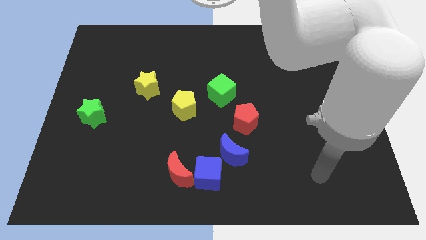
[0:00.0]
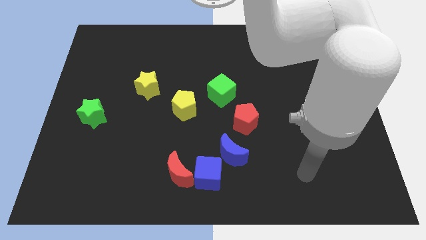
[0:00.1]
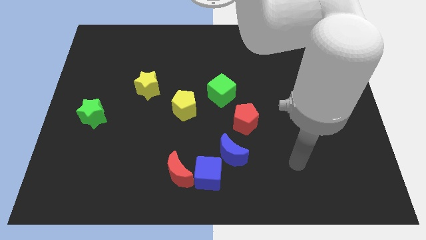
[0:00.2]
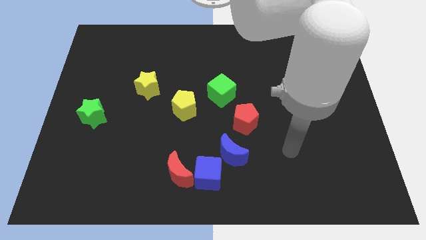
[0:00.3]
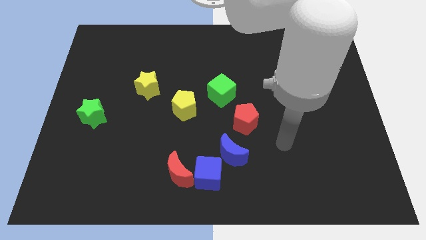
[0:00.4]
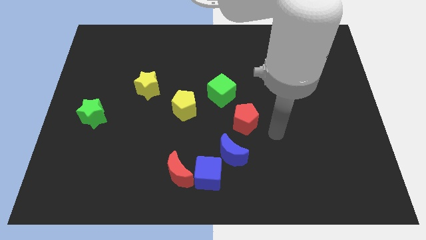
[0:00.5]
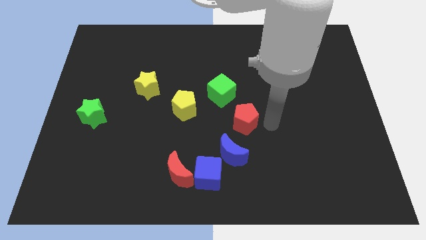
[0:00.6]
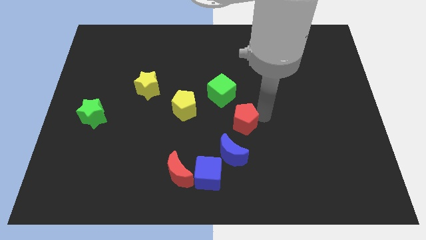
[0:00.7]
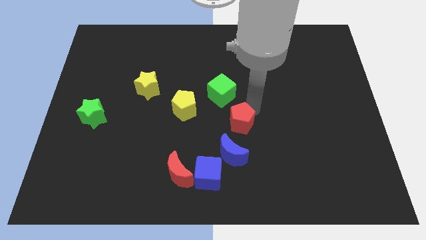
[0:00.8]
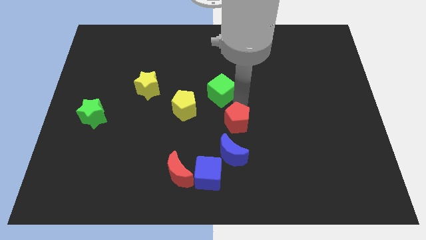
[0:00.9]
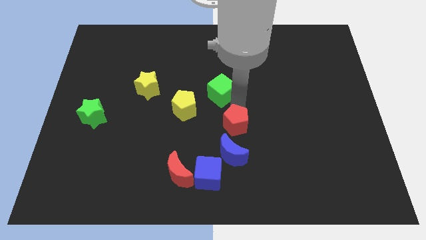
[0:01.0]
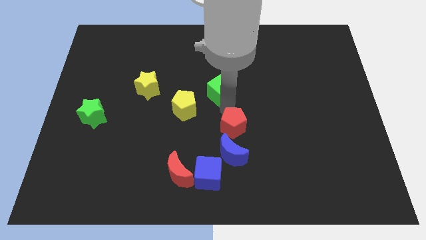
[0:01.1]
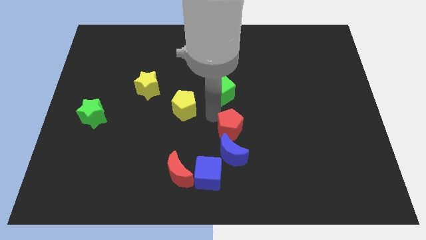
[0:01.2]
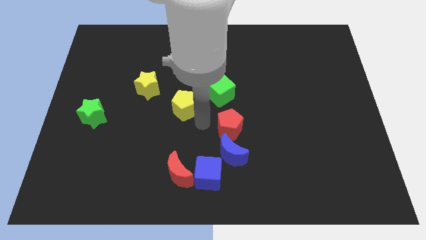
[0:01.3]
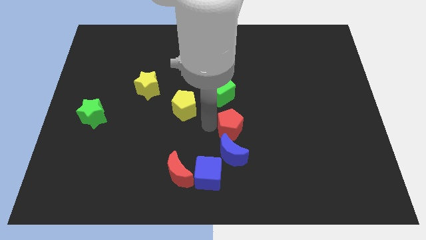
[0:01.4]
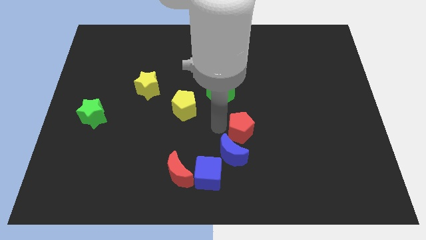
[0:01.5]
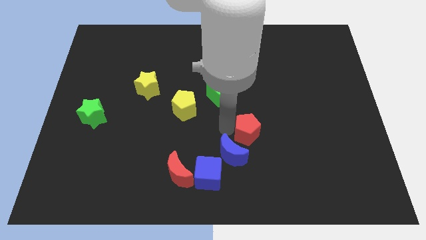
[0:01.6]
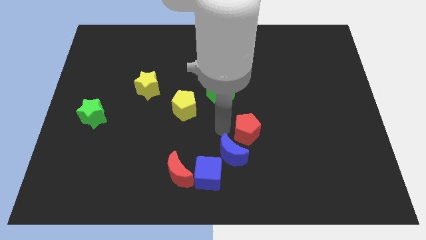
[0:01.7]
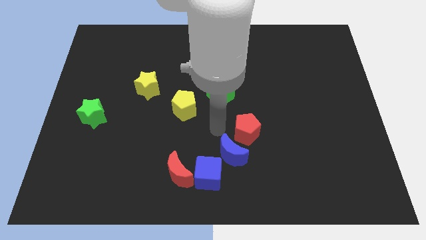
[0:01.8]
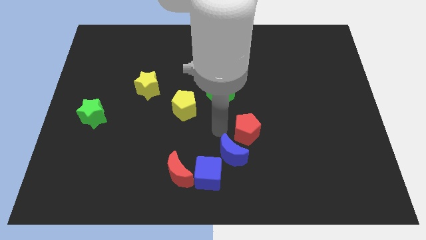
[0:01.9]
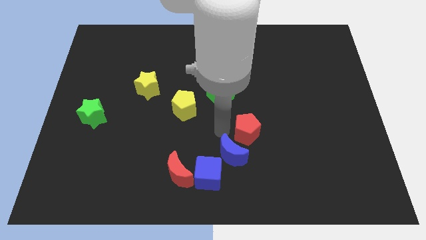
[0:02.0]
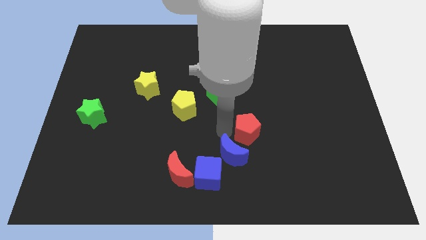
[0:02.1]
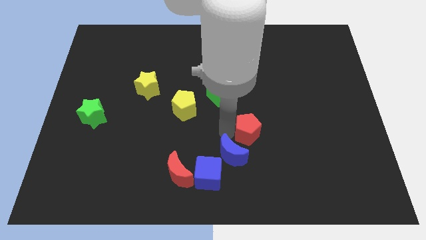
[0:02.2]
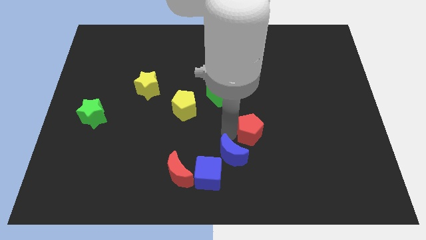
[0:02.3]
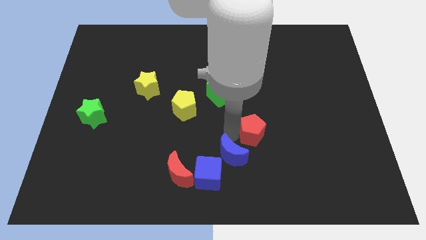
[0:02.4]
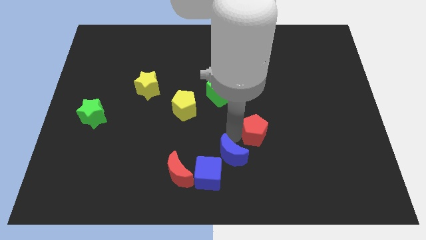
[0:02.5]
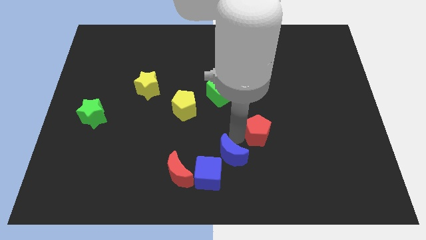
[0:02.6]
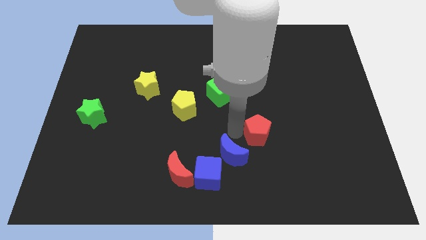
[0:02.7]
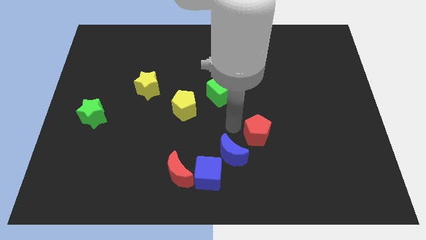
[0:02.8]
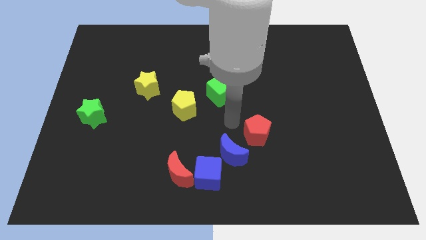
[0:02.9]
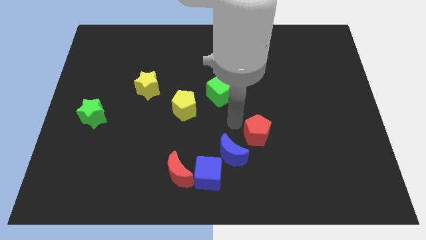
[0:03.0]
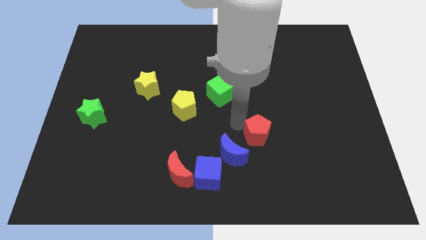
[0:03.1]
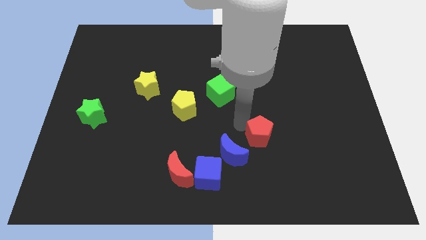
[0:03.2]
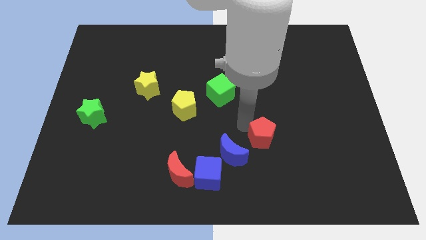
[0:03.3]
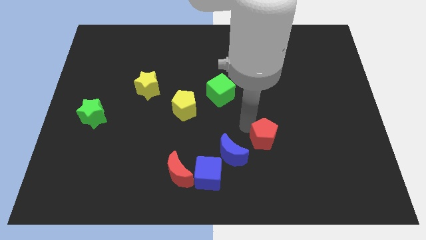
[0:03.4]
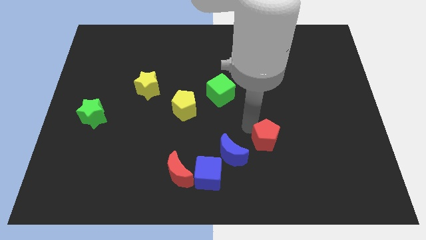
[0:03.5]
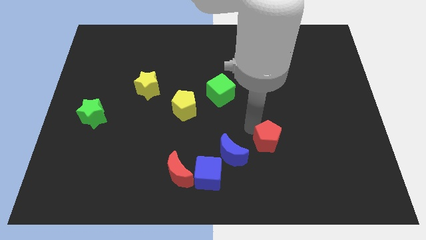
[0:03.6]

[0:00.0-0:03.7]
slightly slide the red pentagon downwards and to the right

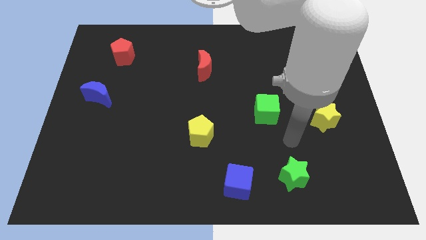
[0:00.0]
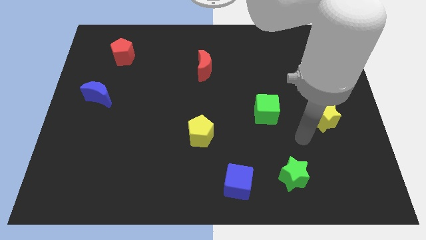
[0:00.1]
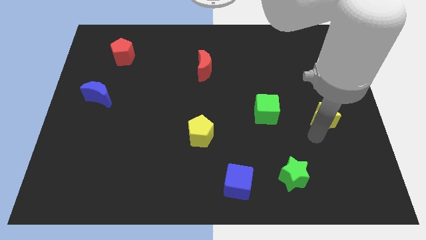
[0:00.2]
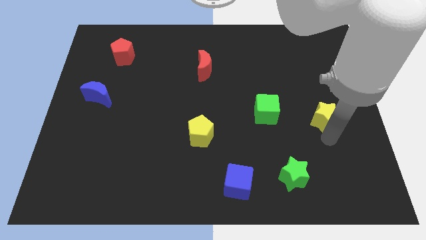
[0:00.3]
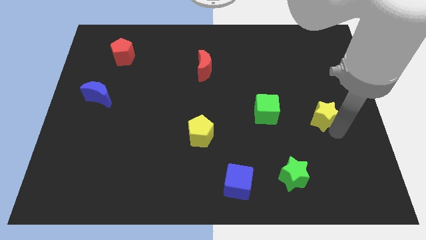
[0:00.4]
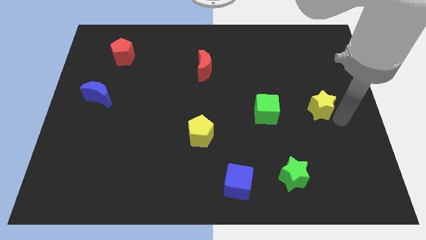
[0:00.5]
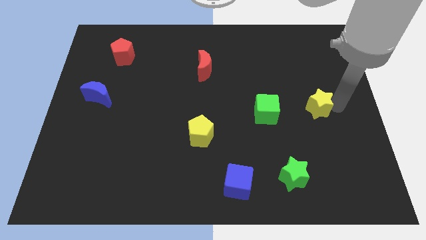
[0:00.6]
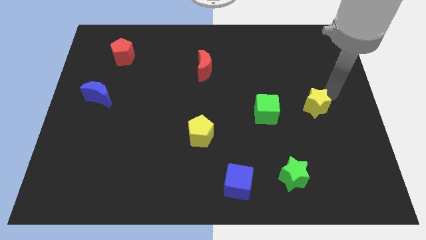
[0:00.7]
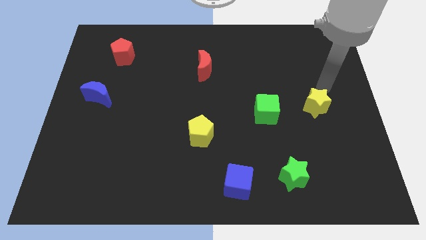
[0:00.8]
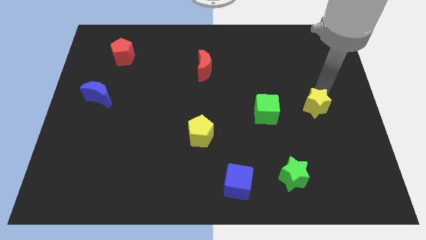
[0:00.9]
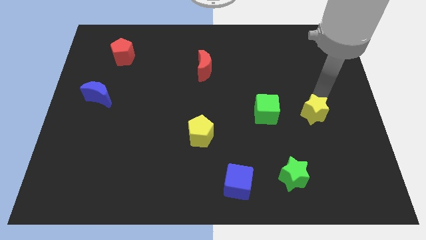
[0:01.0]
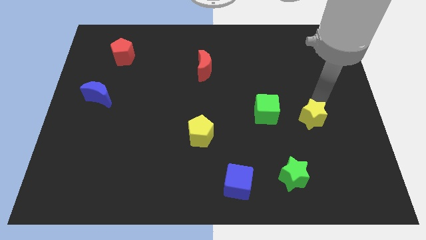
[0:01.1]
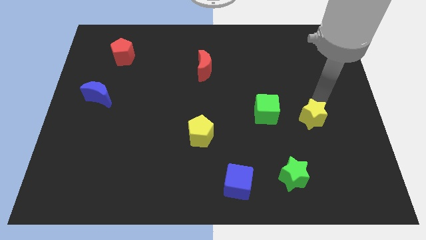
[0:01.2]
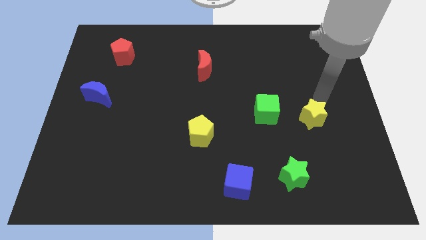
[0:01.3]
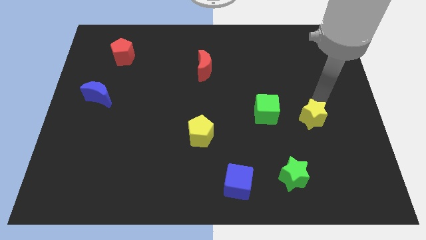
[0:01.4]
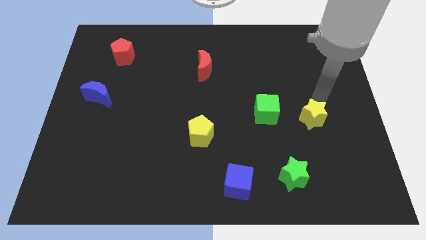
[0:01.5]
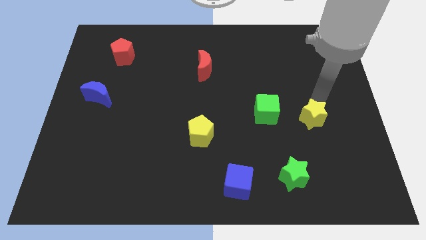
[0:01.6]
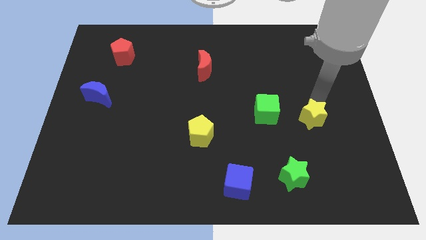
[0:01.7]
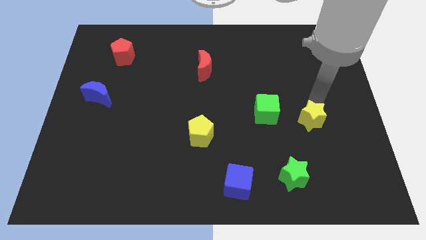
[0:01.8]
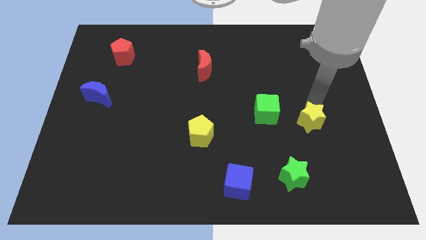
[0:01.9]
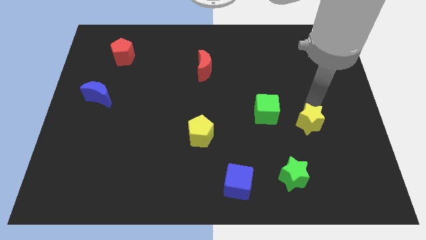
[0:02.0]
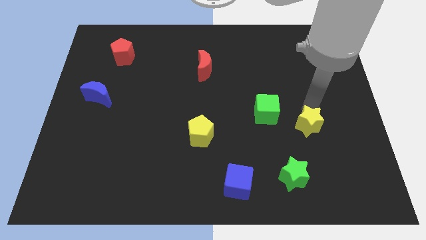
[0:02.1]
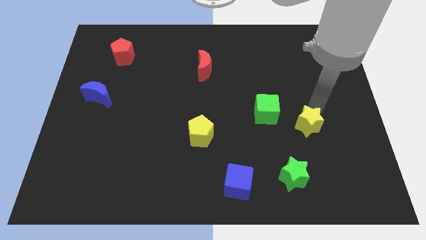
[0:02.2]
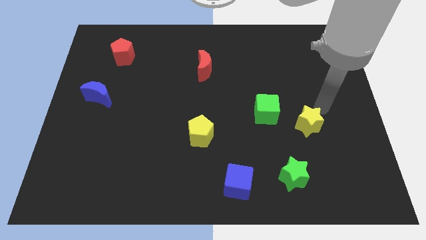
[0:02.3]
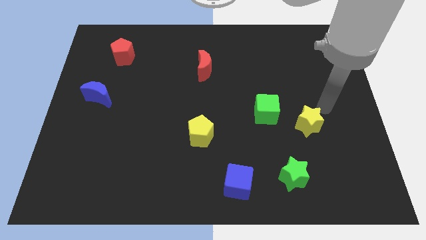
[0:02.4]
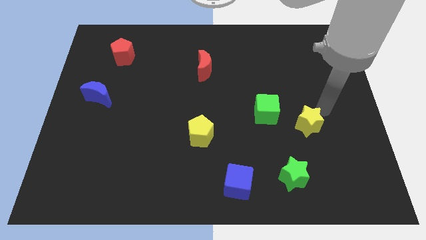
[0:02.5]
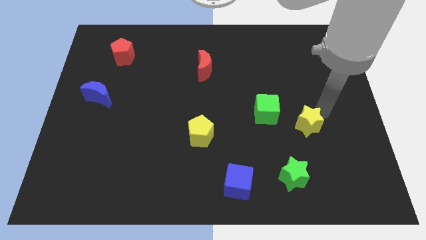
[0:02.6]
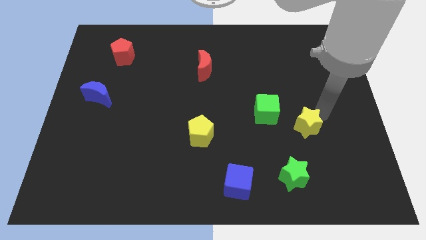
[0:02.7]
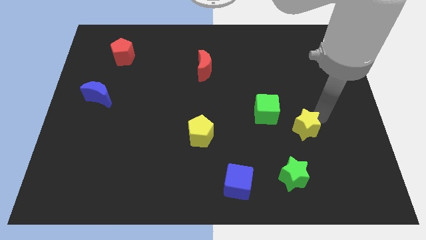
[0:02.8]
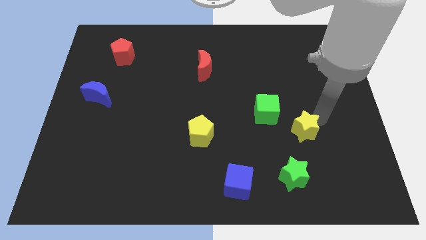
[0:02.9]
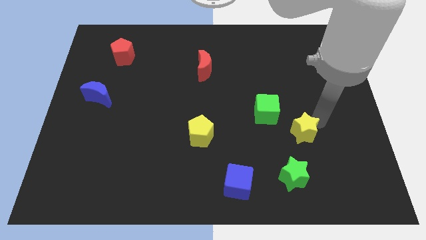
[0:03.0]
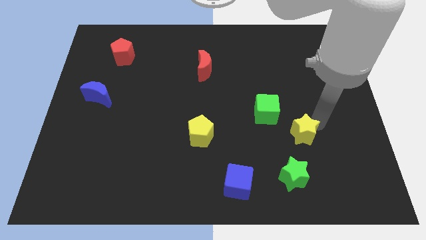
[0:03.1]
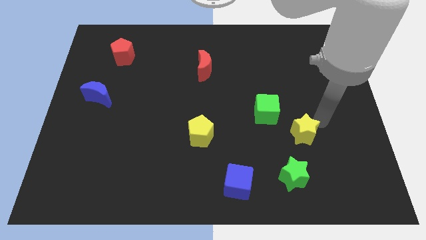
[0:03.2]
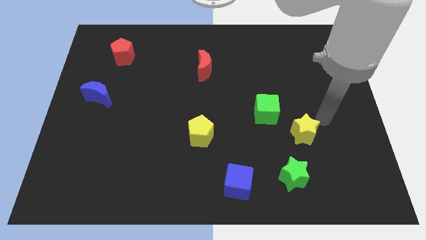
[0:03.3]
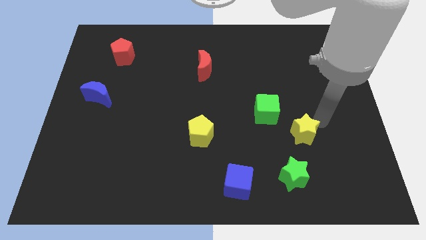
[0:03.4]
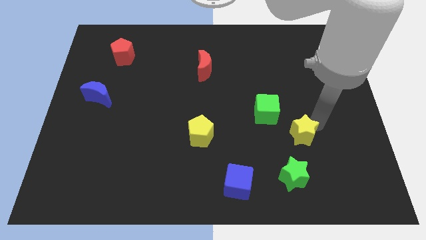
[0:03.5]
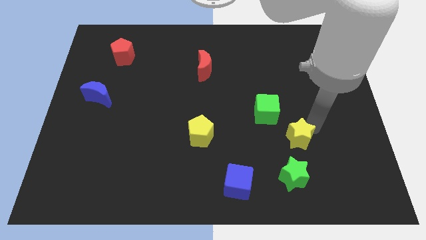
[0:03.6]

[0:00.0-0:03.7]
slide the yellow star diagonally downwards and left slightly

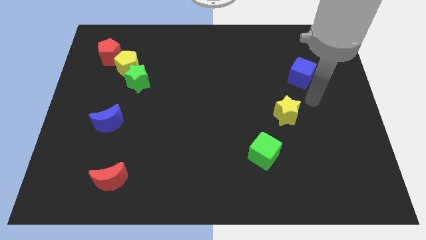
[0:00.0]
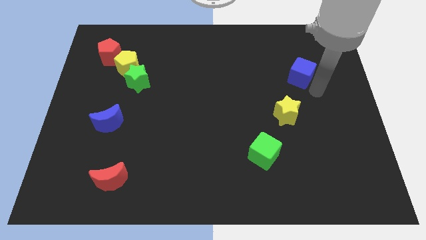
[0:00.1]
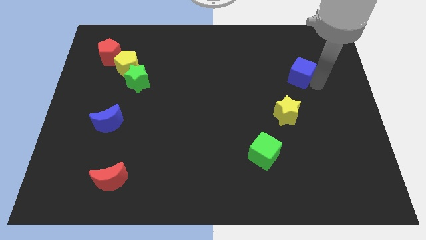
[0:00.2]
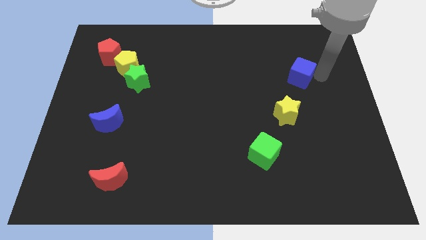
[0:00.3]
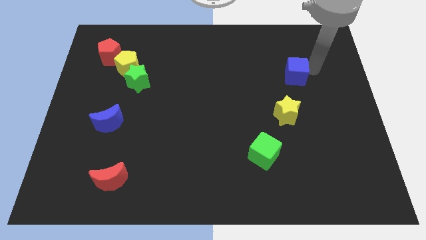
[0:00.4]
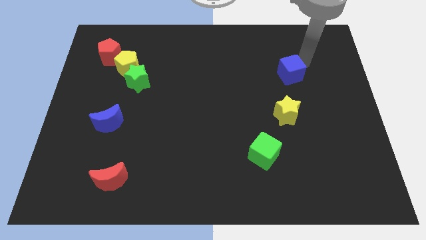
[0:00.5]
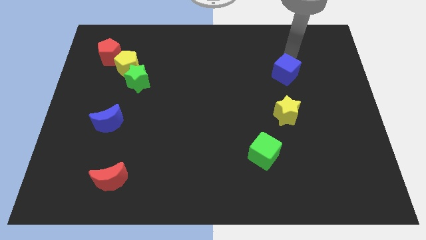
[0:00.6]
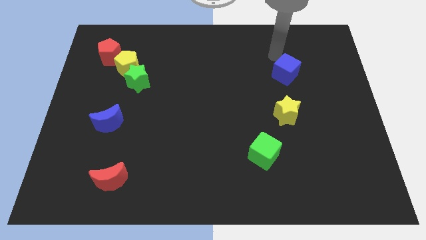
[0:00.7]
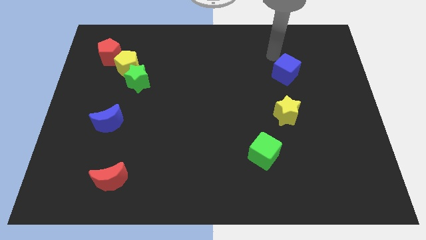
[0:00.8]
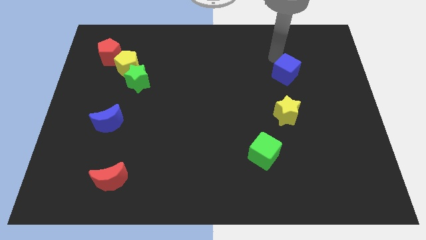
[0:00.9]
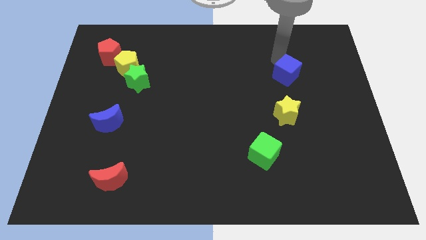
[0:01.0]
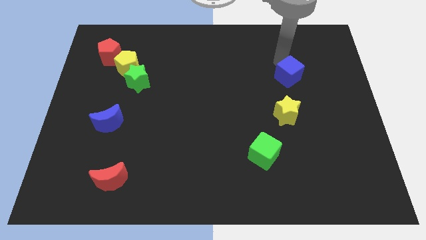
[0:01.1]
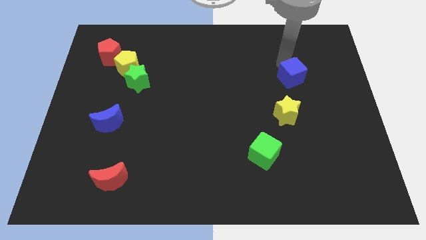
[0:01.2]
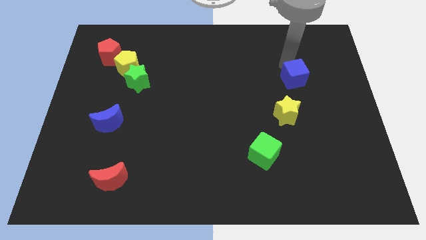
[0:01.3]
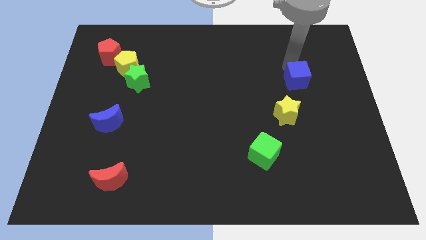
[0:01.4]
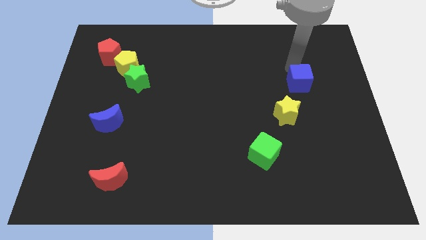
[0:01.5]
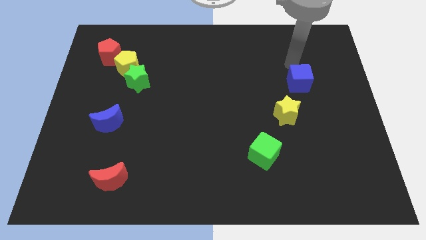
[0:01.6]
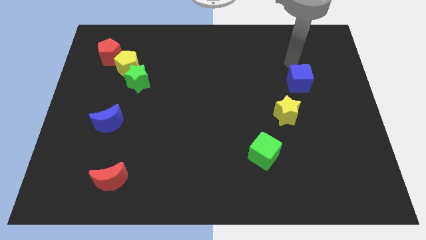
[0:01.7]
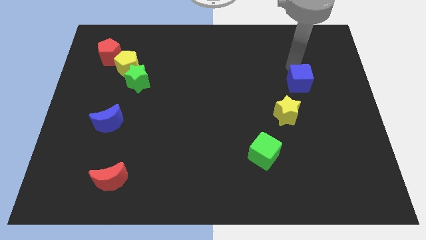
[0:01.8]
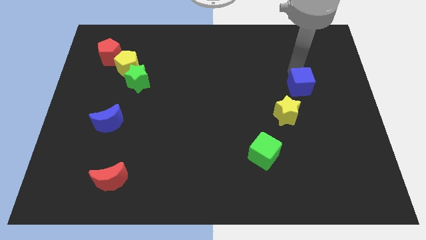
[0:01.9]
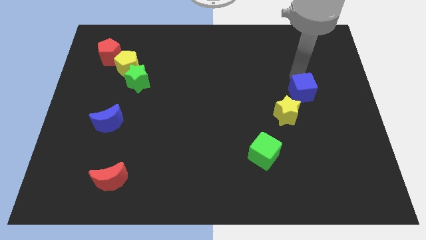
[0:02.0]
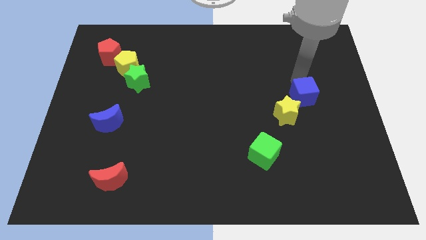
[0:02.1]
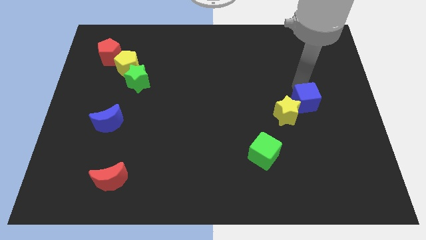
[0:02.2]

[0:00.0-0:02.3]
slightly slide the blue cube down
